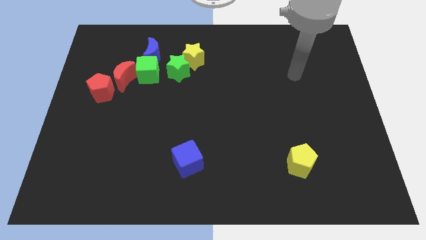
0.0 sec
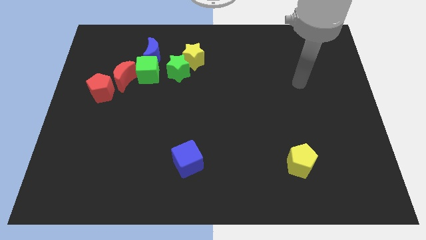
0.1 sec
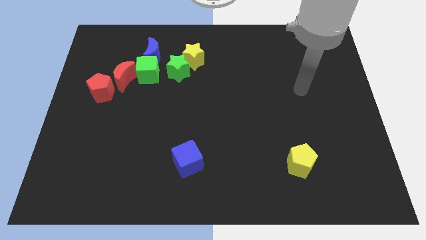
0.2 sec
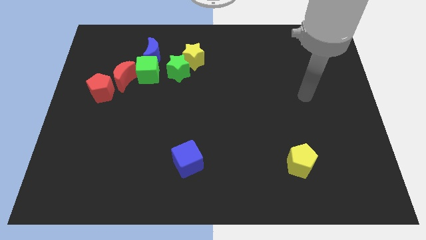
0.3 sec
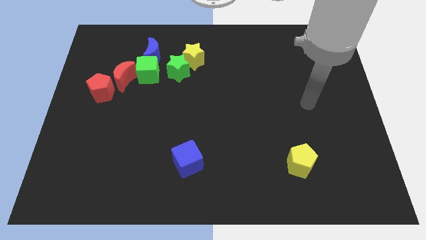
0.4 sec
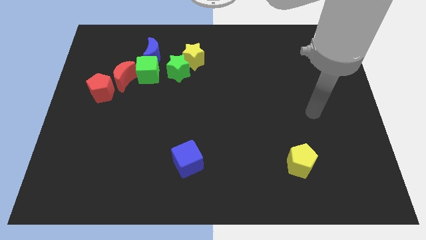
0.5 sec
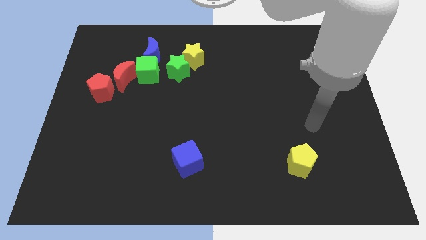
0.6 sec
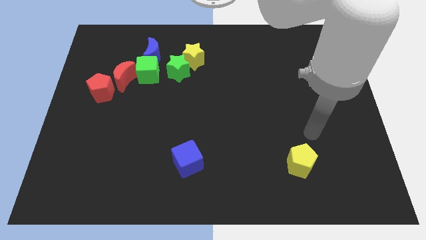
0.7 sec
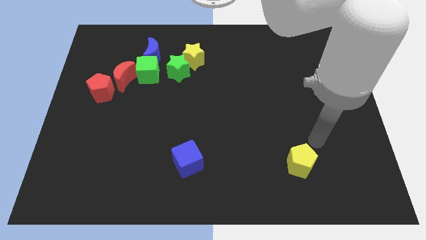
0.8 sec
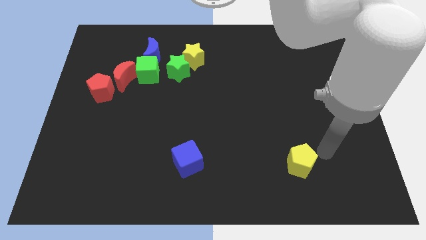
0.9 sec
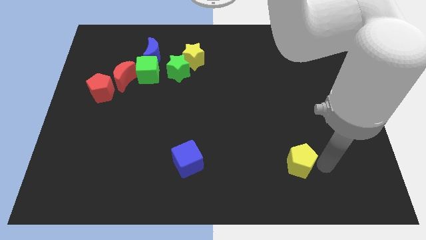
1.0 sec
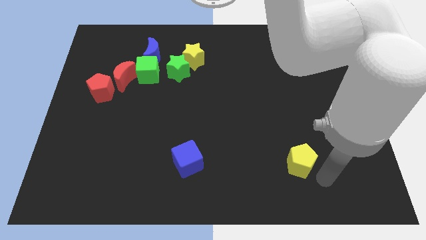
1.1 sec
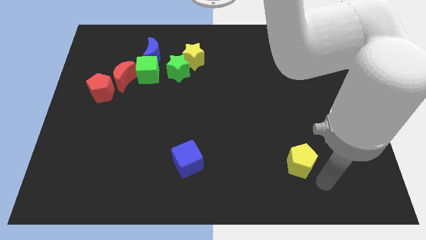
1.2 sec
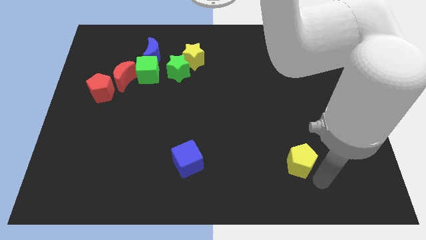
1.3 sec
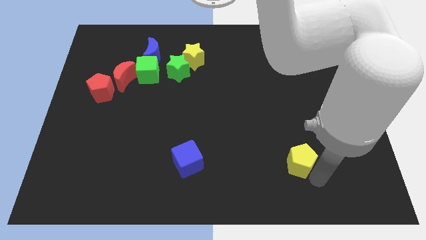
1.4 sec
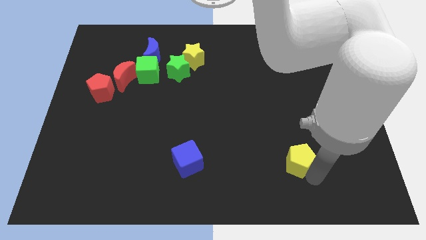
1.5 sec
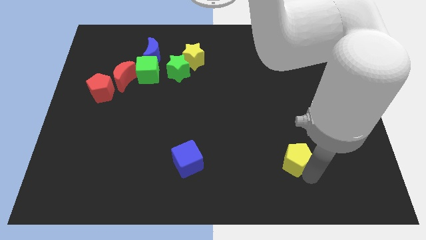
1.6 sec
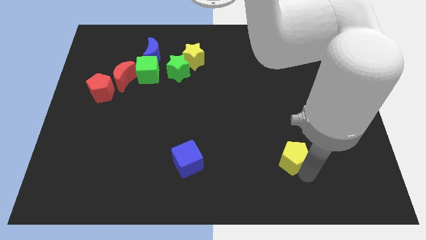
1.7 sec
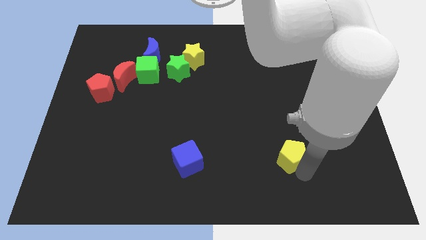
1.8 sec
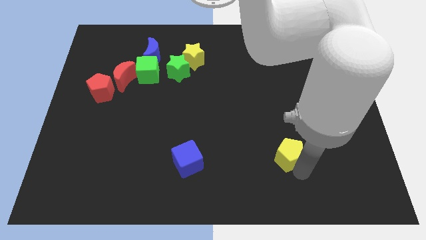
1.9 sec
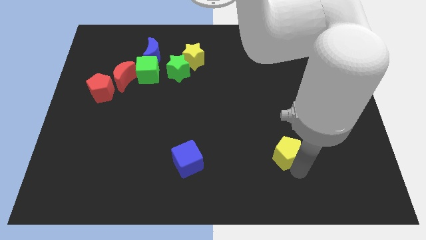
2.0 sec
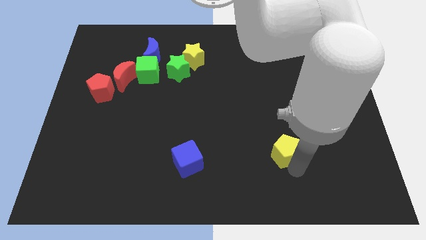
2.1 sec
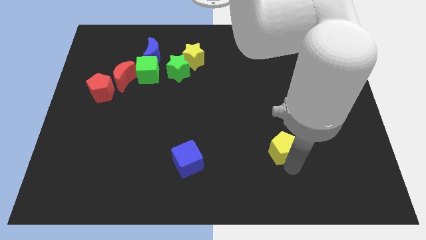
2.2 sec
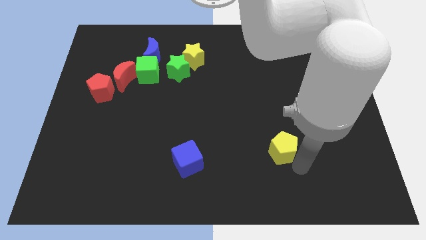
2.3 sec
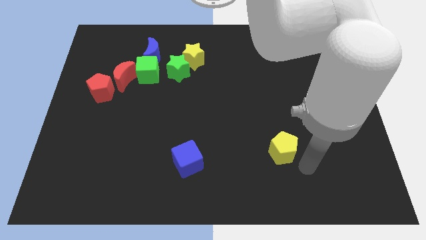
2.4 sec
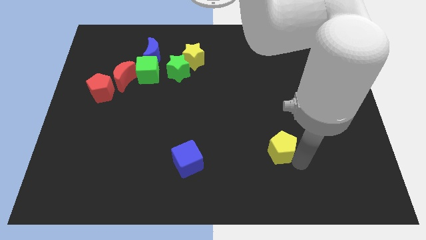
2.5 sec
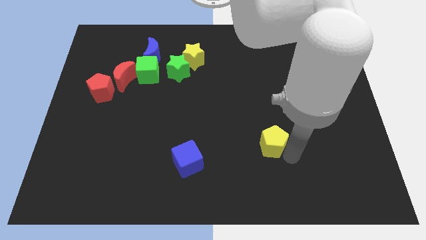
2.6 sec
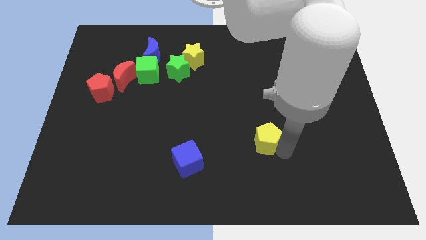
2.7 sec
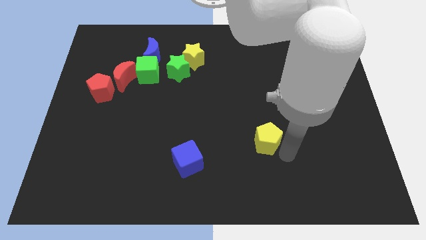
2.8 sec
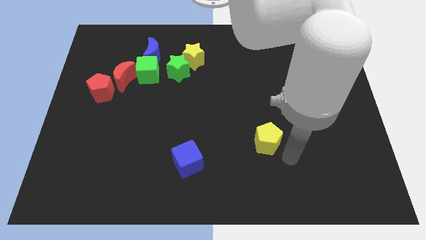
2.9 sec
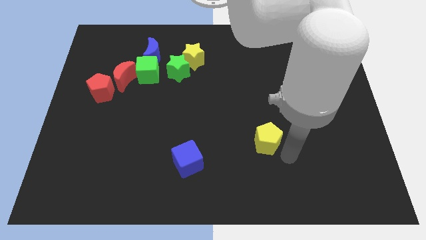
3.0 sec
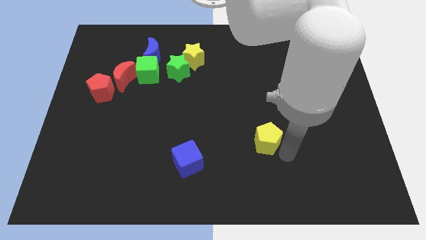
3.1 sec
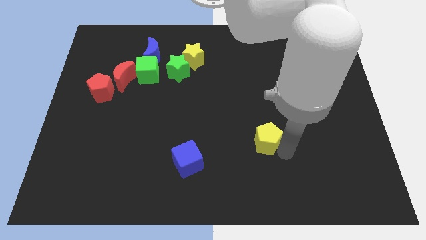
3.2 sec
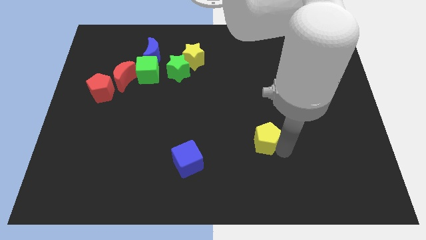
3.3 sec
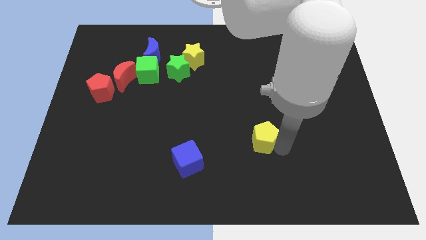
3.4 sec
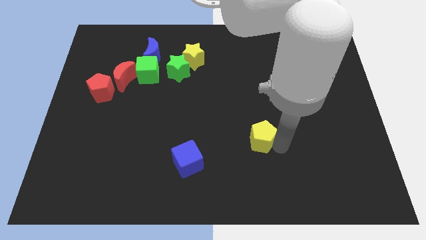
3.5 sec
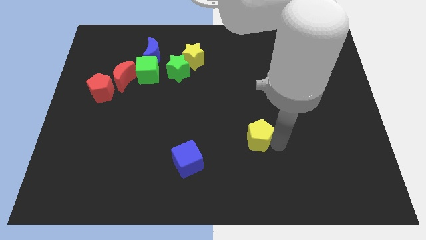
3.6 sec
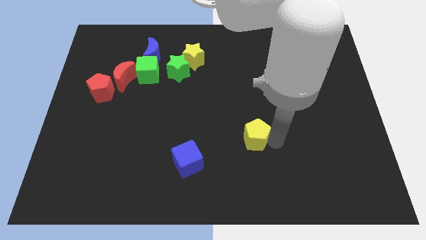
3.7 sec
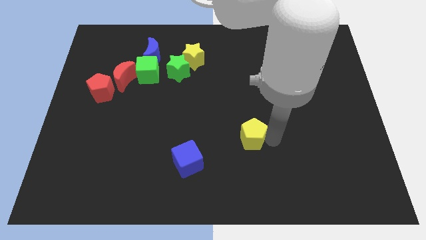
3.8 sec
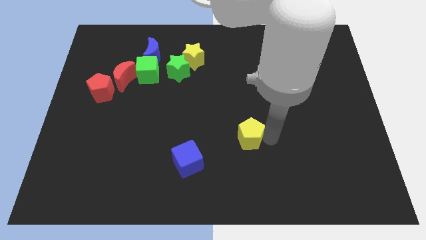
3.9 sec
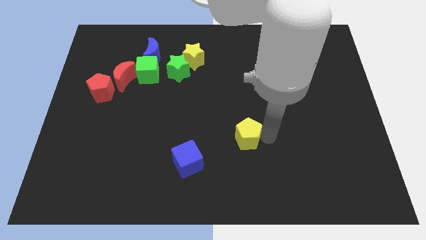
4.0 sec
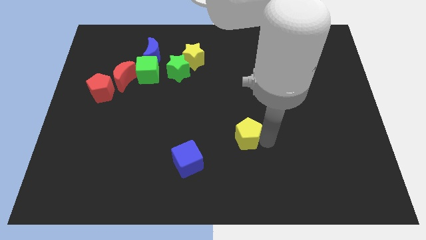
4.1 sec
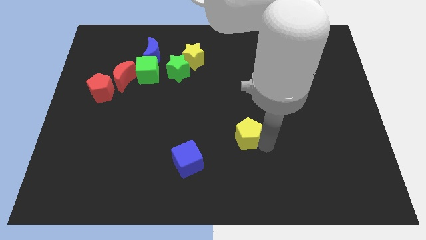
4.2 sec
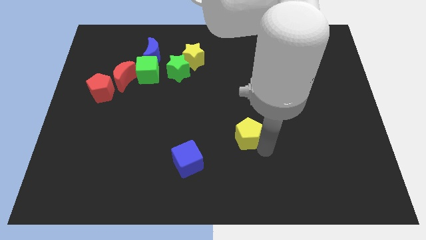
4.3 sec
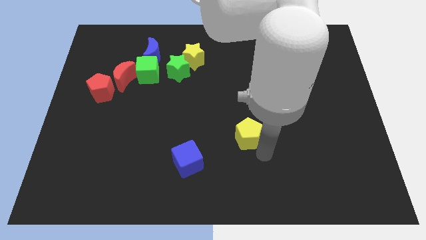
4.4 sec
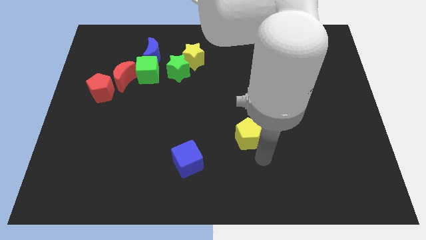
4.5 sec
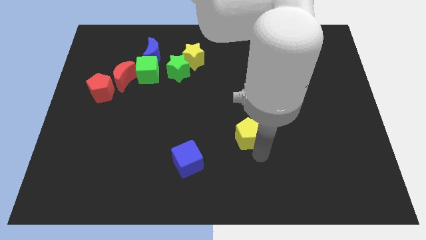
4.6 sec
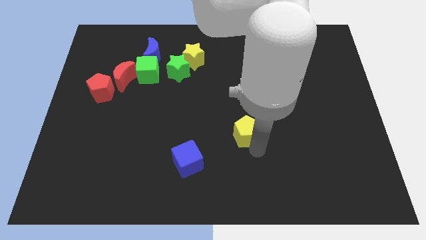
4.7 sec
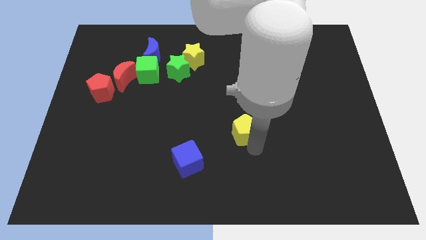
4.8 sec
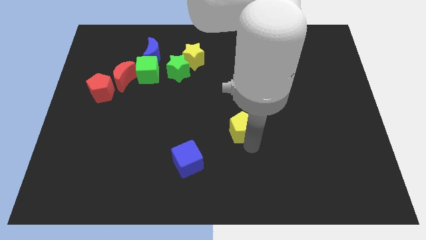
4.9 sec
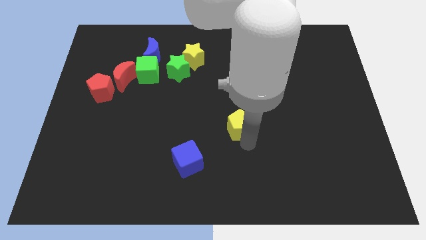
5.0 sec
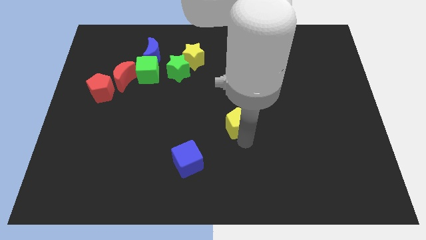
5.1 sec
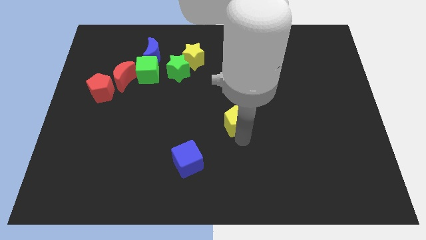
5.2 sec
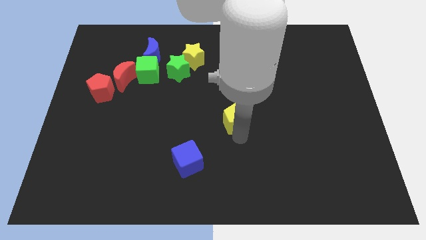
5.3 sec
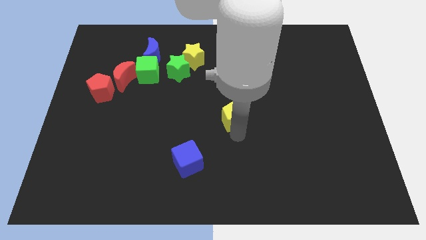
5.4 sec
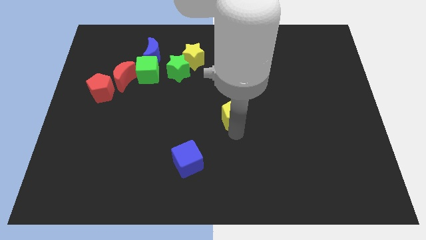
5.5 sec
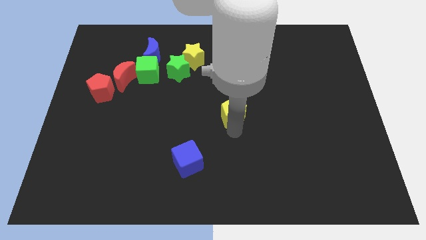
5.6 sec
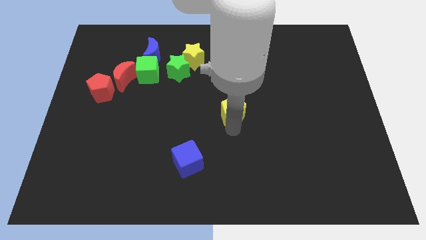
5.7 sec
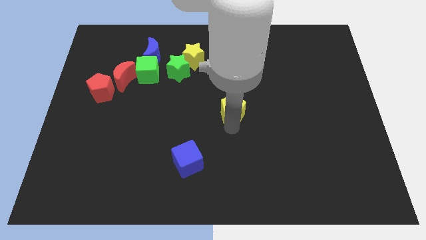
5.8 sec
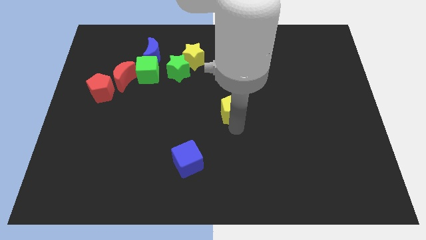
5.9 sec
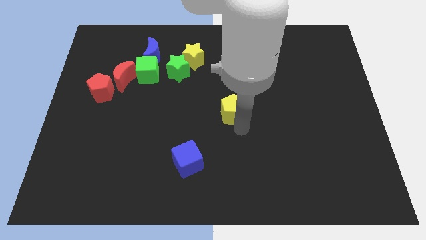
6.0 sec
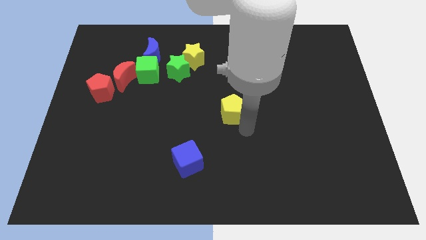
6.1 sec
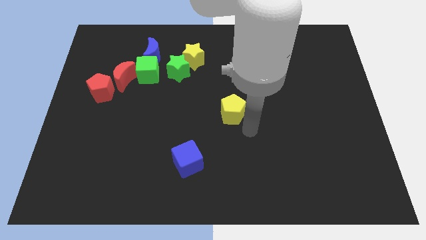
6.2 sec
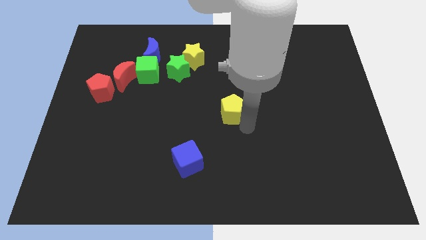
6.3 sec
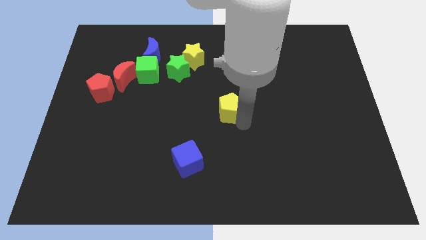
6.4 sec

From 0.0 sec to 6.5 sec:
move the yellow pentagon upwards and to the left

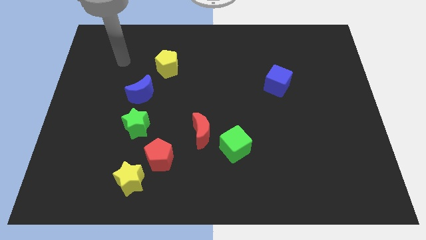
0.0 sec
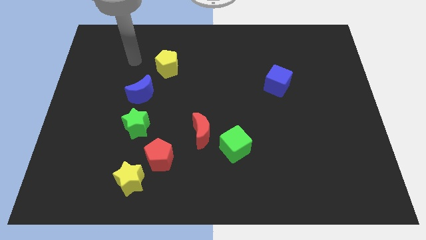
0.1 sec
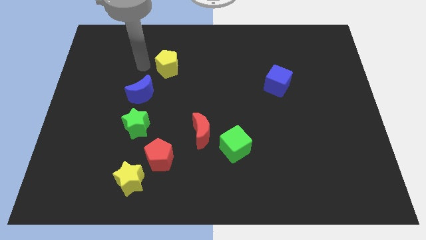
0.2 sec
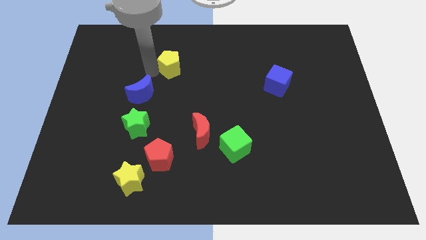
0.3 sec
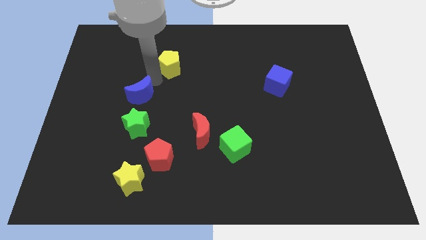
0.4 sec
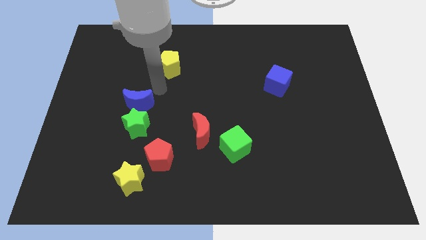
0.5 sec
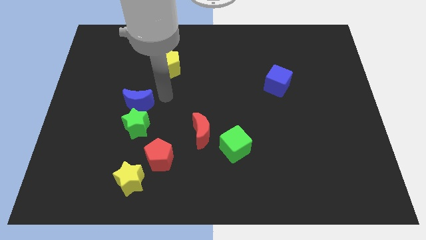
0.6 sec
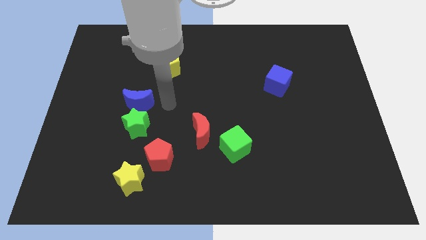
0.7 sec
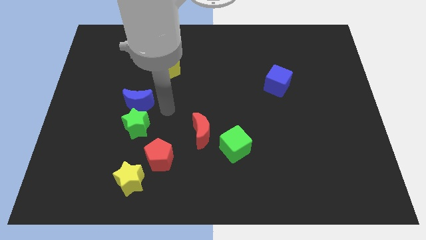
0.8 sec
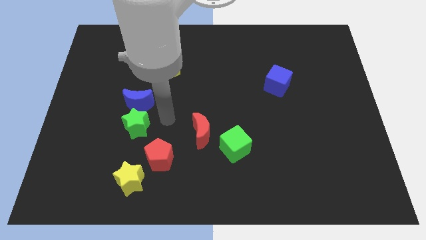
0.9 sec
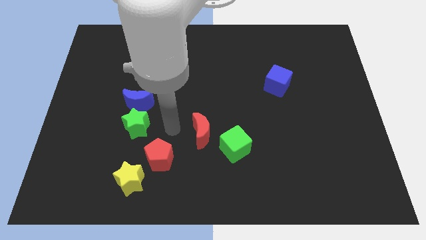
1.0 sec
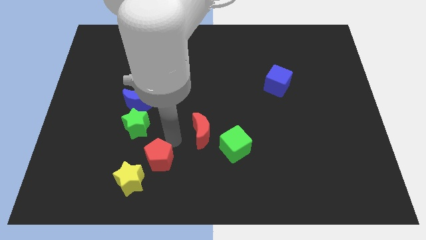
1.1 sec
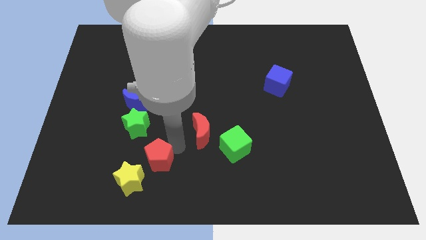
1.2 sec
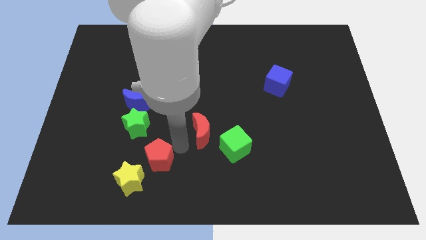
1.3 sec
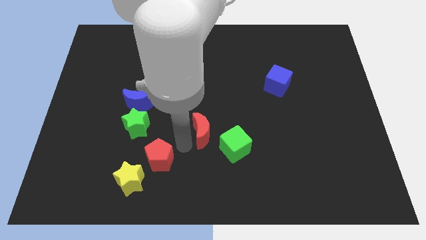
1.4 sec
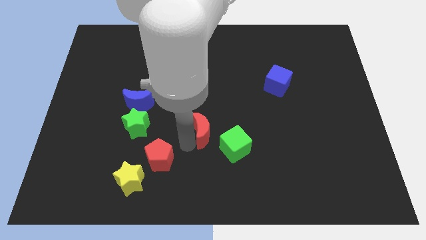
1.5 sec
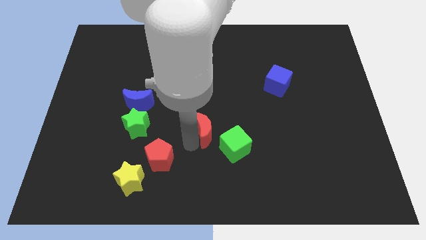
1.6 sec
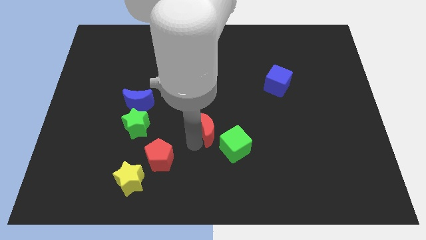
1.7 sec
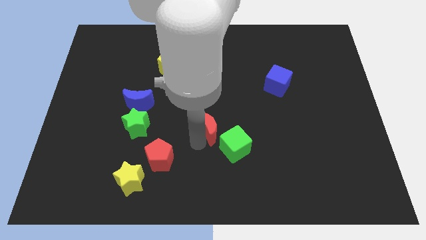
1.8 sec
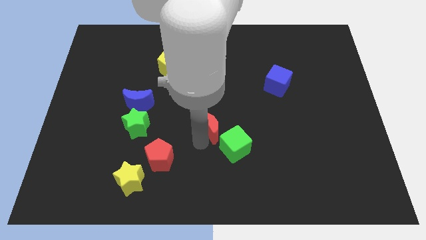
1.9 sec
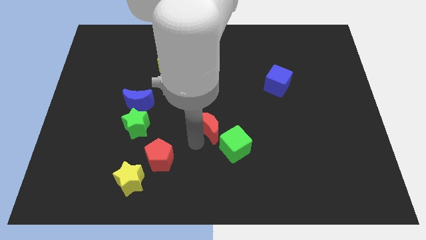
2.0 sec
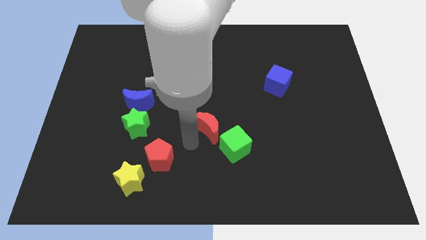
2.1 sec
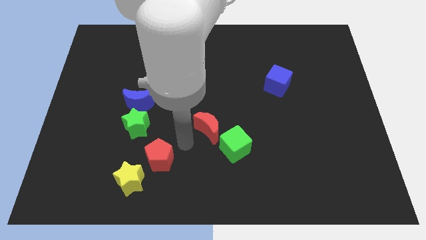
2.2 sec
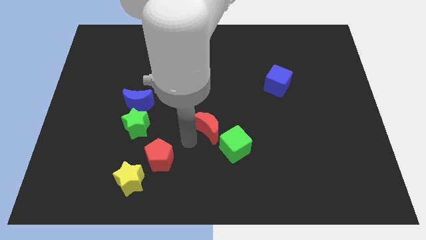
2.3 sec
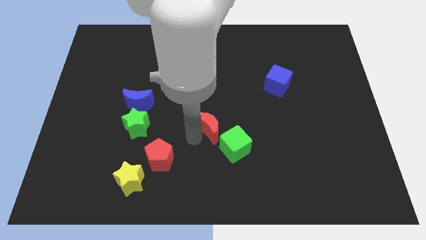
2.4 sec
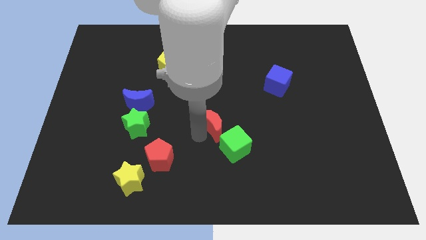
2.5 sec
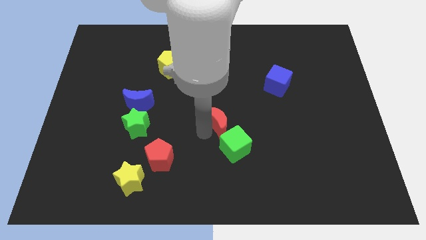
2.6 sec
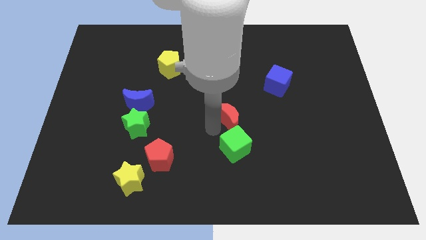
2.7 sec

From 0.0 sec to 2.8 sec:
slightly slide the red moon diagonally upwards and to the right
